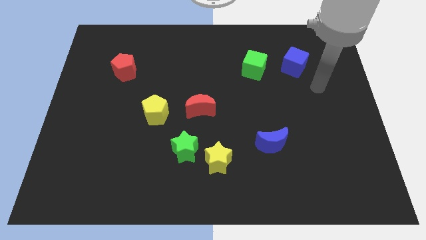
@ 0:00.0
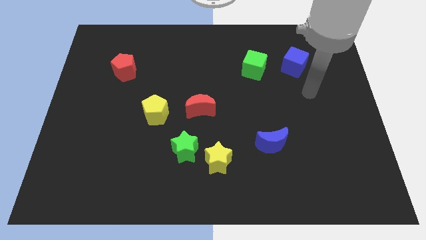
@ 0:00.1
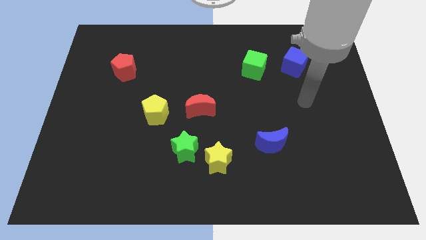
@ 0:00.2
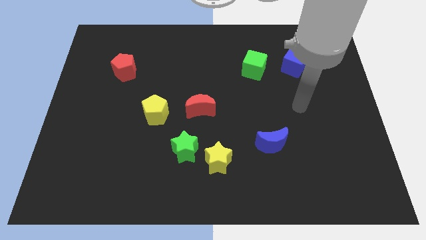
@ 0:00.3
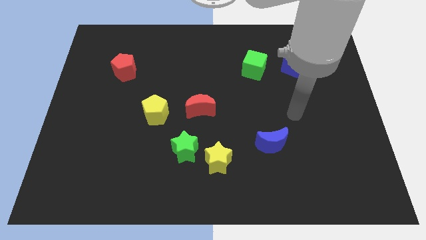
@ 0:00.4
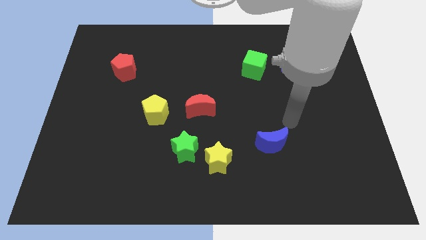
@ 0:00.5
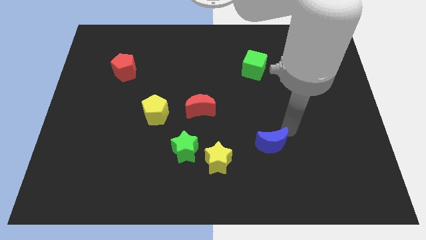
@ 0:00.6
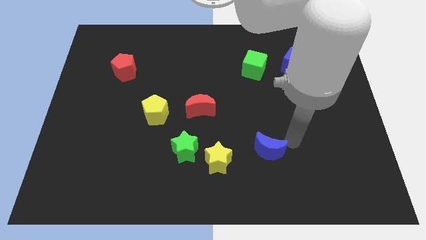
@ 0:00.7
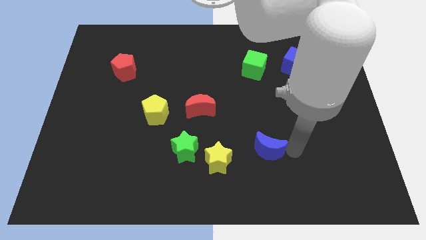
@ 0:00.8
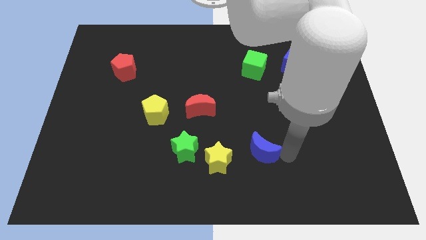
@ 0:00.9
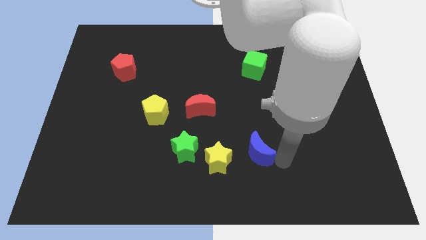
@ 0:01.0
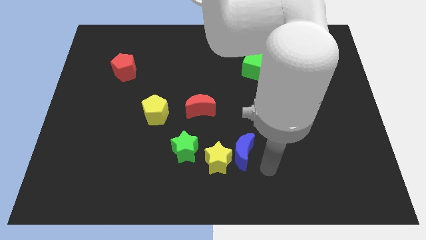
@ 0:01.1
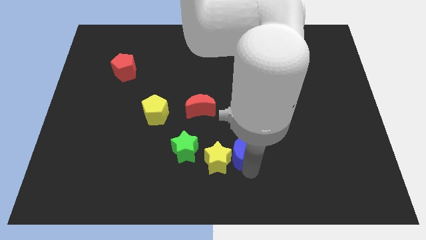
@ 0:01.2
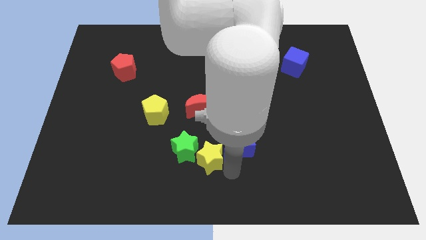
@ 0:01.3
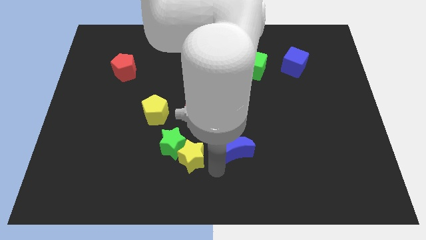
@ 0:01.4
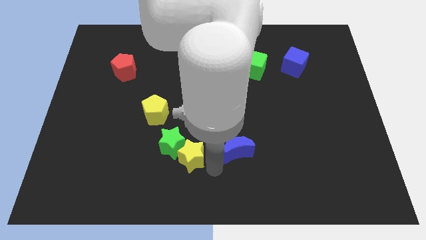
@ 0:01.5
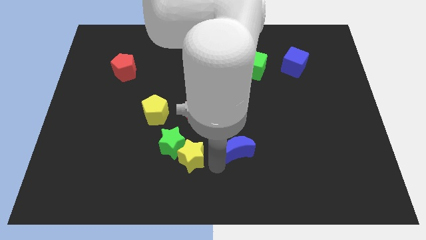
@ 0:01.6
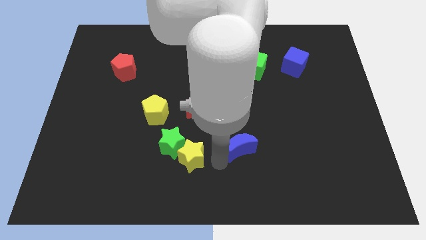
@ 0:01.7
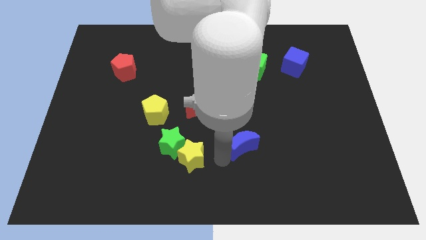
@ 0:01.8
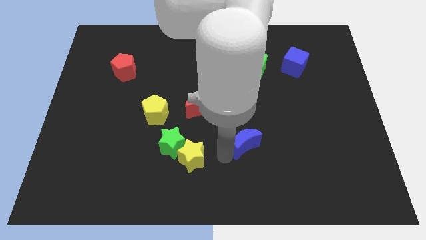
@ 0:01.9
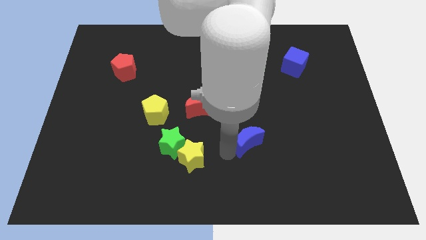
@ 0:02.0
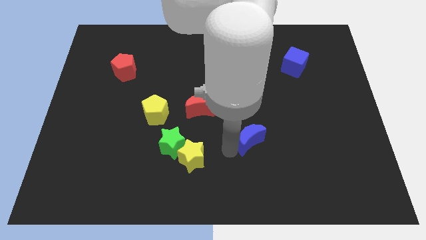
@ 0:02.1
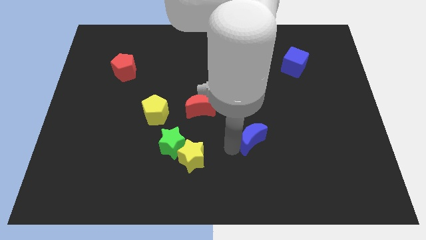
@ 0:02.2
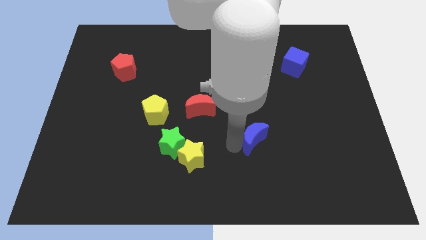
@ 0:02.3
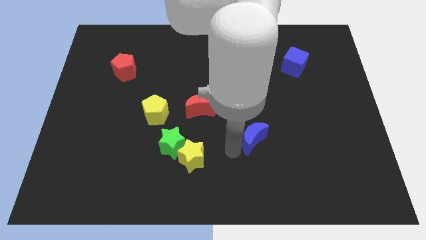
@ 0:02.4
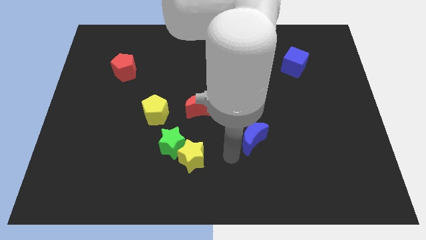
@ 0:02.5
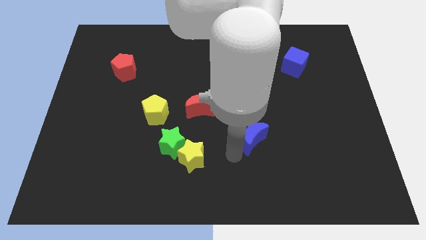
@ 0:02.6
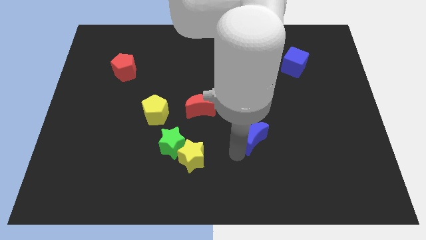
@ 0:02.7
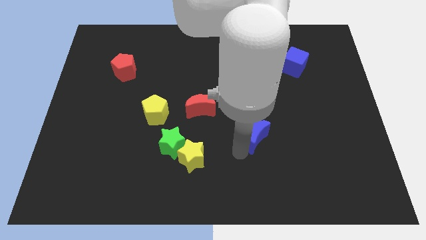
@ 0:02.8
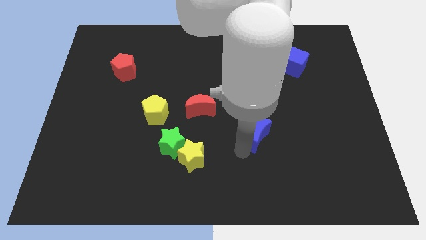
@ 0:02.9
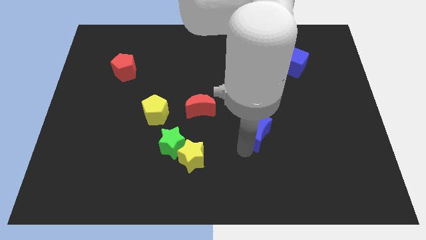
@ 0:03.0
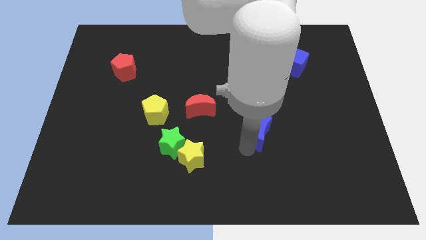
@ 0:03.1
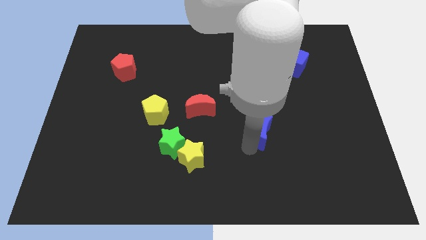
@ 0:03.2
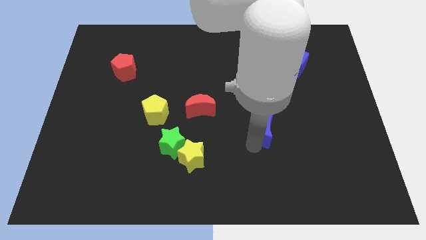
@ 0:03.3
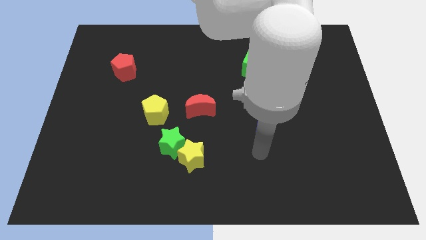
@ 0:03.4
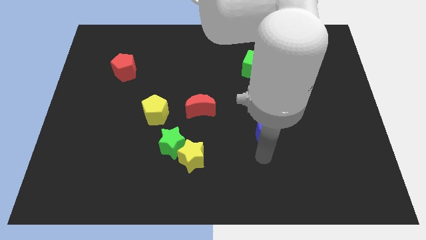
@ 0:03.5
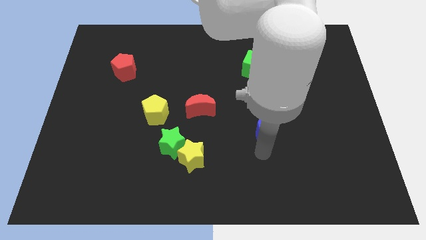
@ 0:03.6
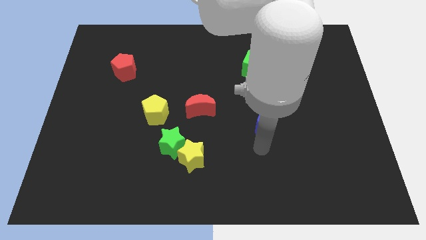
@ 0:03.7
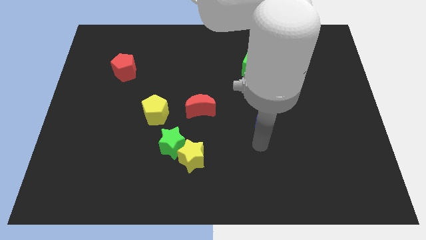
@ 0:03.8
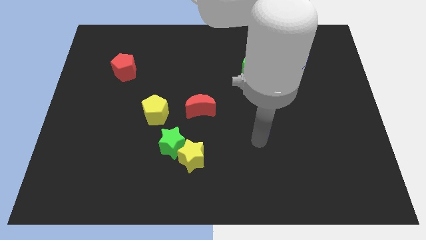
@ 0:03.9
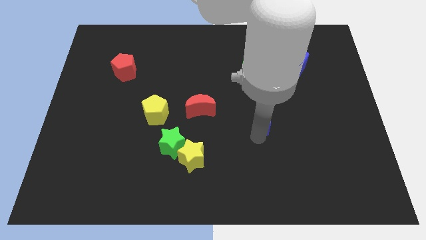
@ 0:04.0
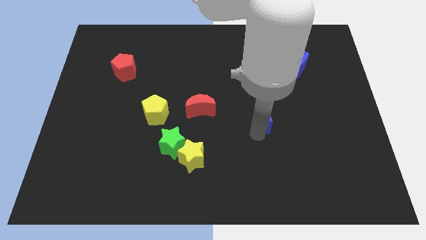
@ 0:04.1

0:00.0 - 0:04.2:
move the blue moon up somewhat

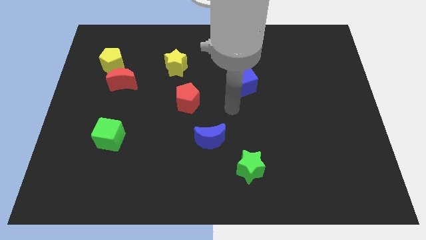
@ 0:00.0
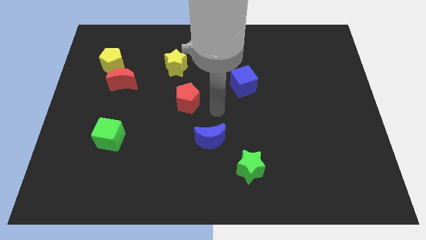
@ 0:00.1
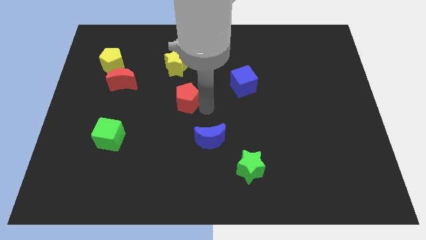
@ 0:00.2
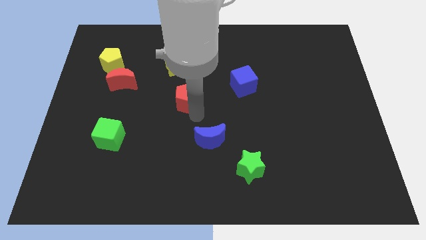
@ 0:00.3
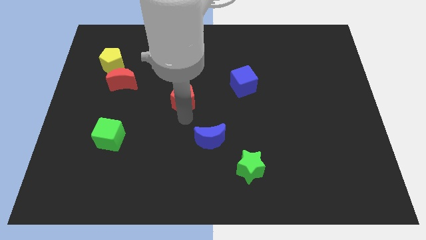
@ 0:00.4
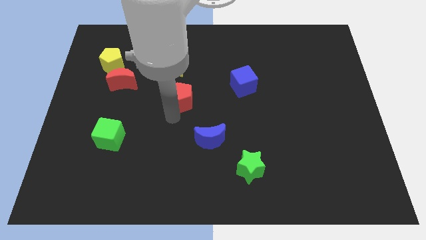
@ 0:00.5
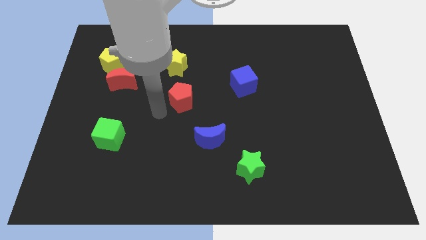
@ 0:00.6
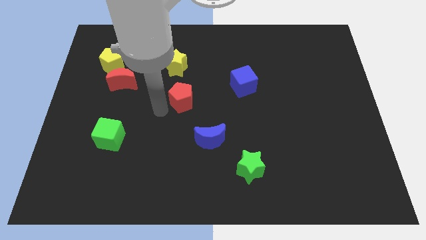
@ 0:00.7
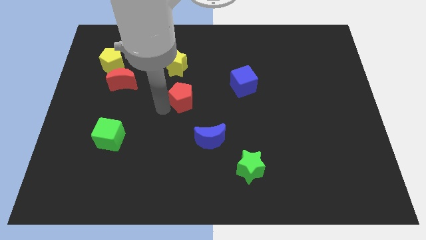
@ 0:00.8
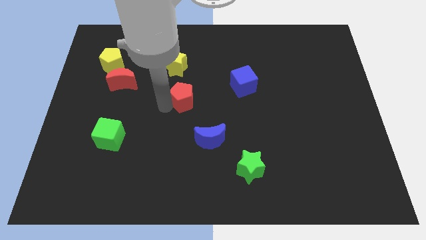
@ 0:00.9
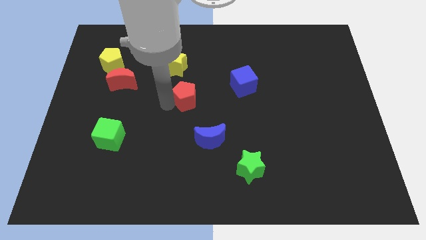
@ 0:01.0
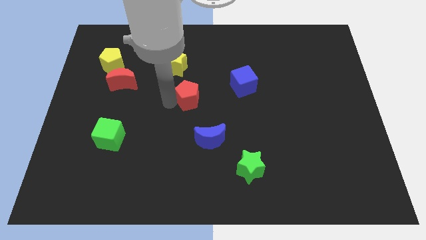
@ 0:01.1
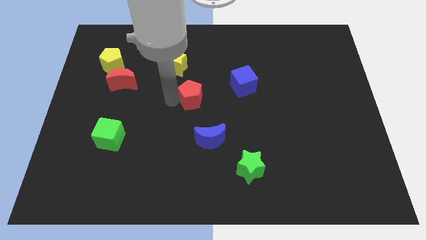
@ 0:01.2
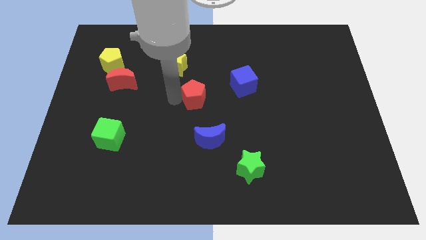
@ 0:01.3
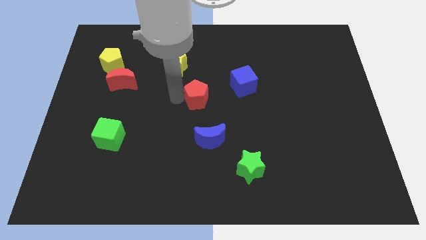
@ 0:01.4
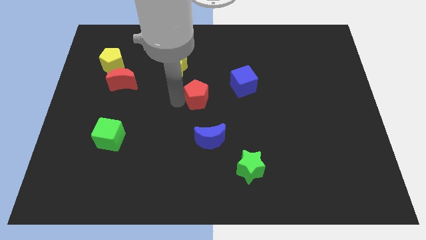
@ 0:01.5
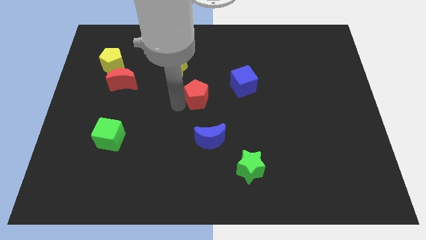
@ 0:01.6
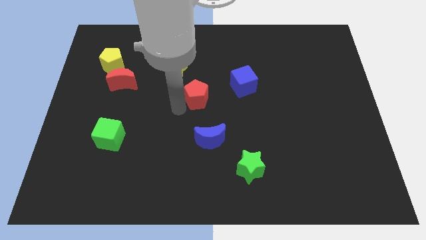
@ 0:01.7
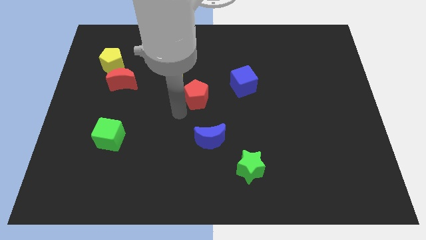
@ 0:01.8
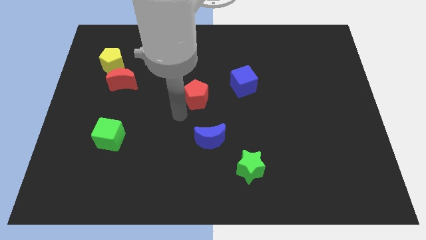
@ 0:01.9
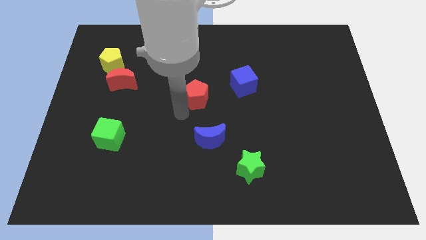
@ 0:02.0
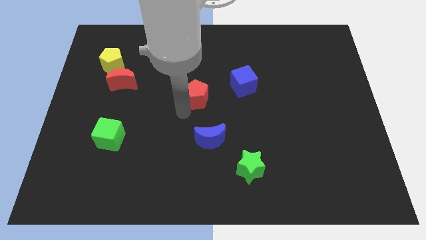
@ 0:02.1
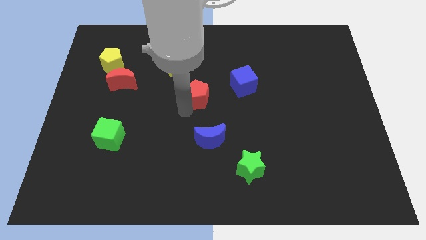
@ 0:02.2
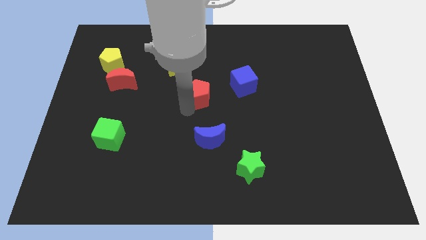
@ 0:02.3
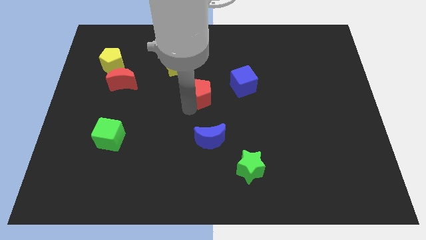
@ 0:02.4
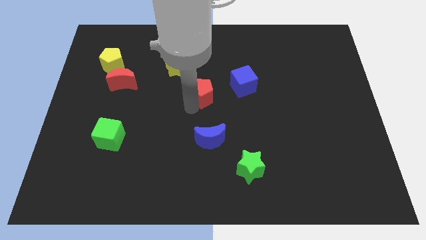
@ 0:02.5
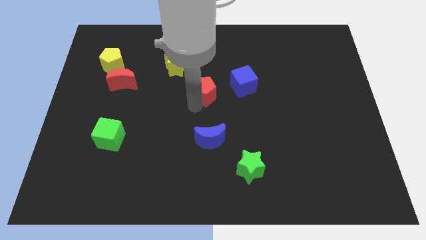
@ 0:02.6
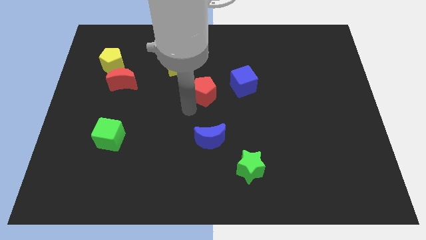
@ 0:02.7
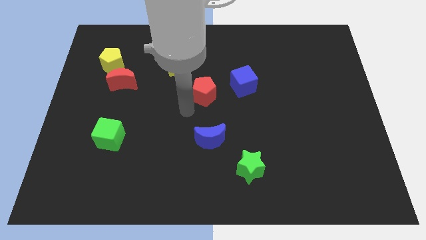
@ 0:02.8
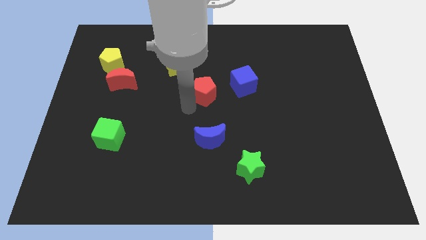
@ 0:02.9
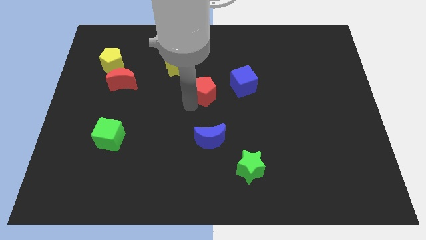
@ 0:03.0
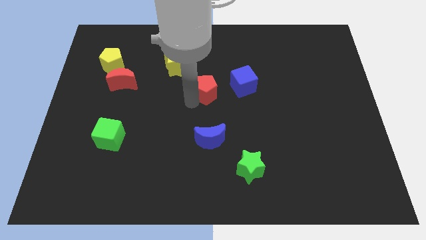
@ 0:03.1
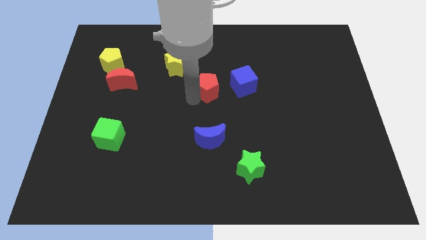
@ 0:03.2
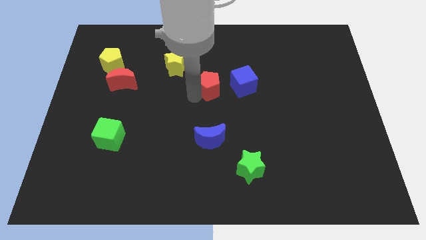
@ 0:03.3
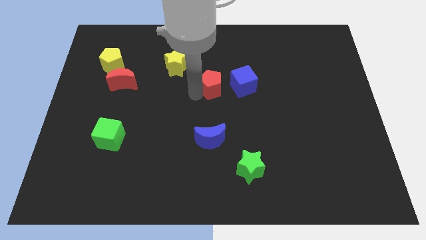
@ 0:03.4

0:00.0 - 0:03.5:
push the red pentagon up and to the right diagonally somewhat

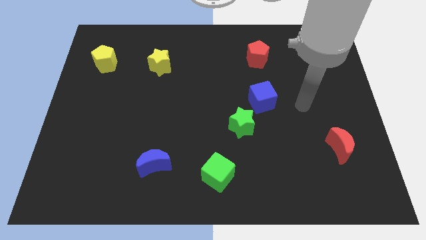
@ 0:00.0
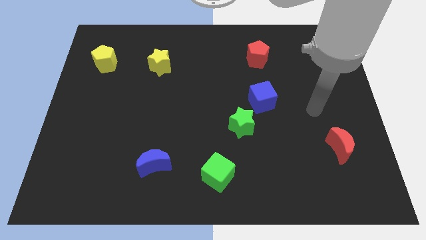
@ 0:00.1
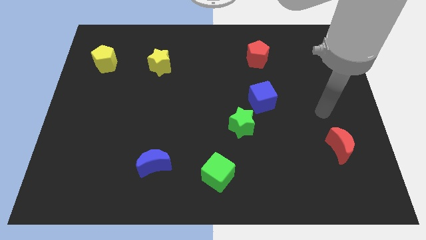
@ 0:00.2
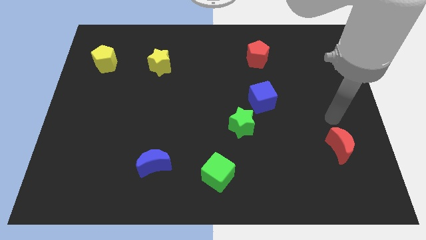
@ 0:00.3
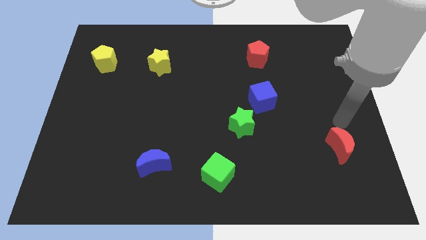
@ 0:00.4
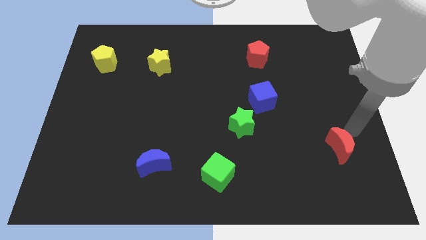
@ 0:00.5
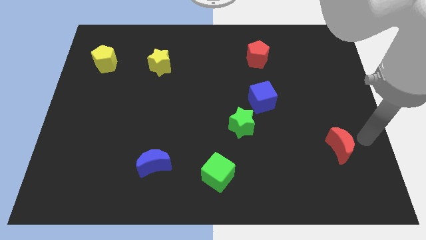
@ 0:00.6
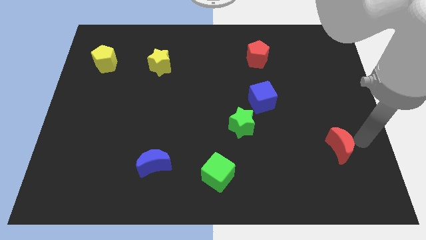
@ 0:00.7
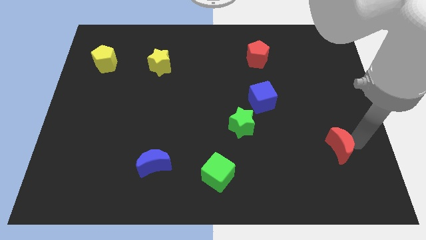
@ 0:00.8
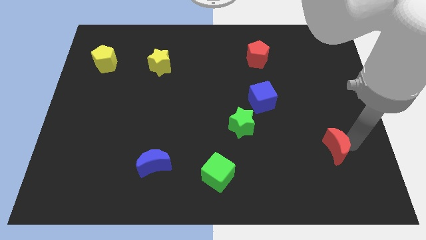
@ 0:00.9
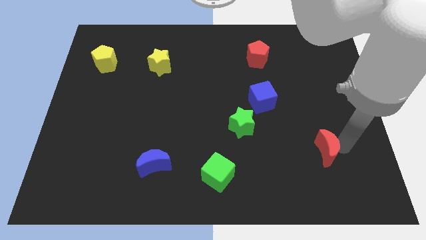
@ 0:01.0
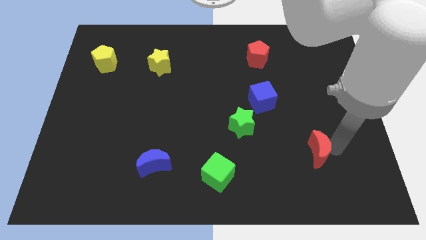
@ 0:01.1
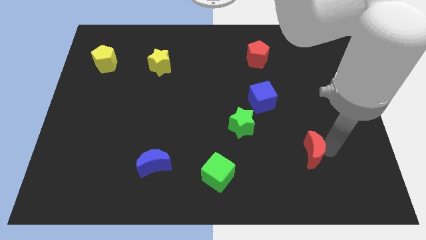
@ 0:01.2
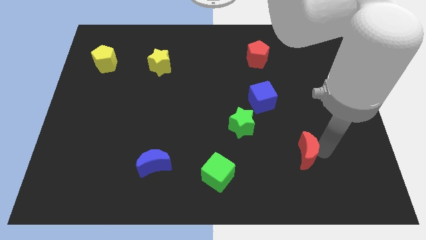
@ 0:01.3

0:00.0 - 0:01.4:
move the red moon somewhat left
